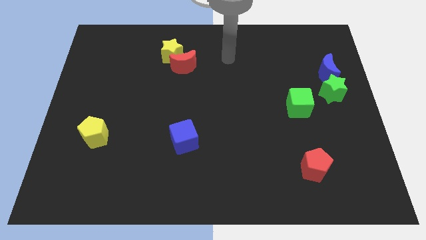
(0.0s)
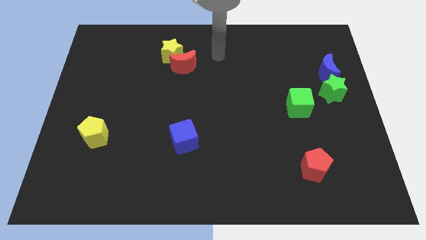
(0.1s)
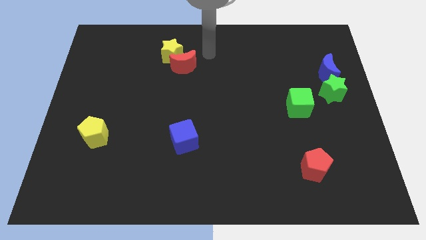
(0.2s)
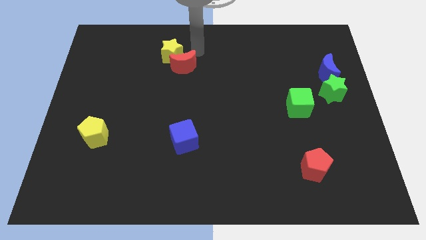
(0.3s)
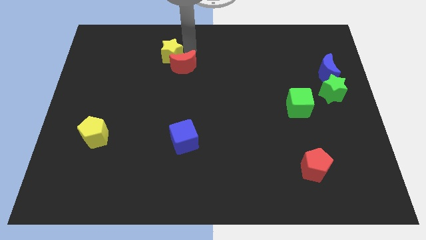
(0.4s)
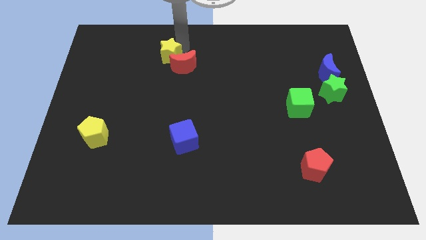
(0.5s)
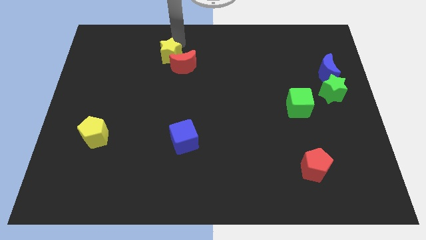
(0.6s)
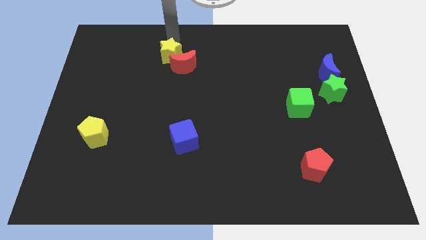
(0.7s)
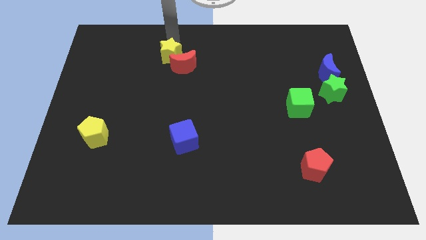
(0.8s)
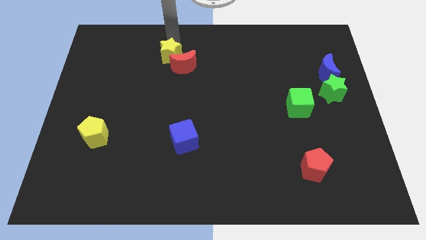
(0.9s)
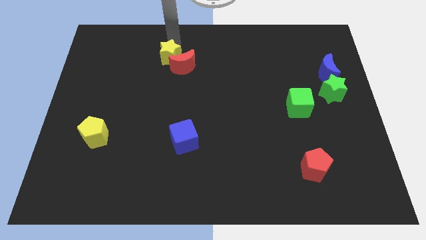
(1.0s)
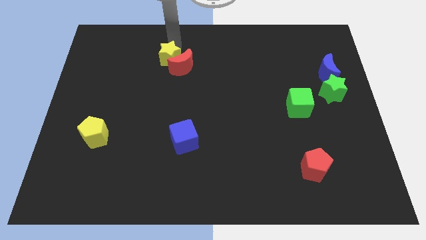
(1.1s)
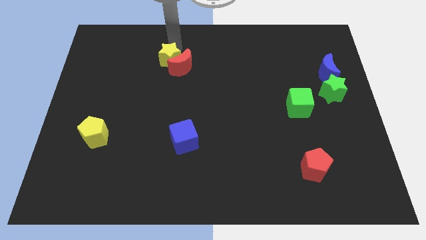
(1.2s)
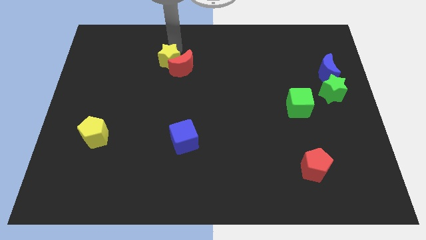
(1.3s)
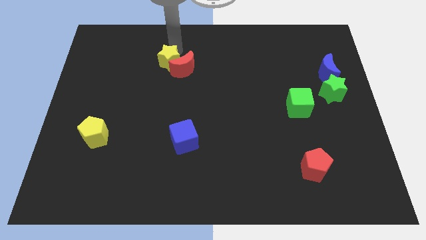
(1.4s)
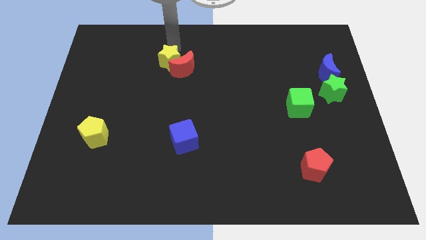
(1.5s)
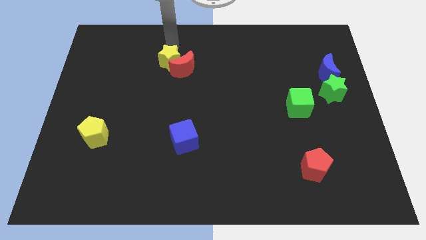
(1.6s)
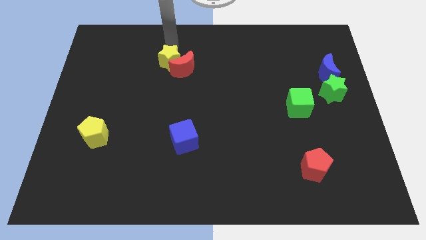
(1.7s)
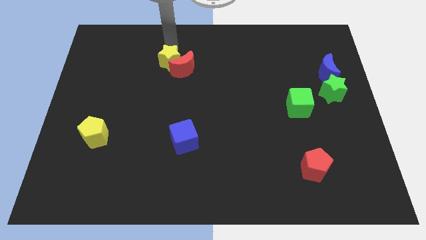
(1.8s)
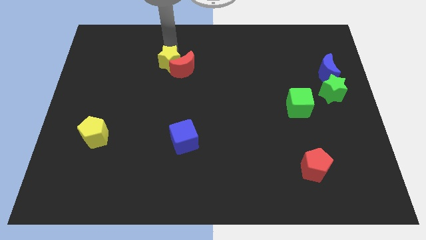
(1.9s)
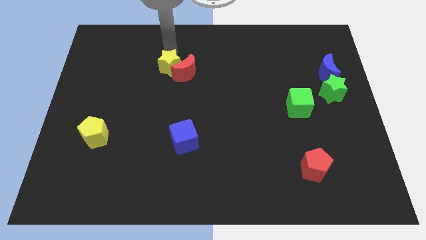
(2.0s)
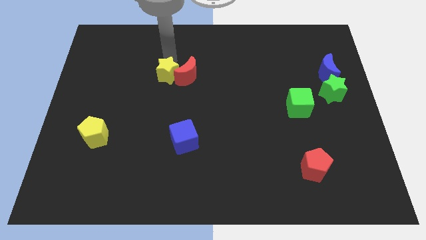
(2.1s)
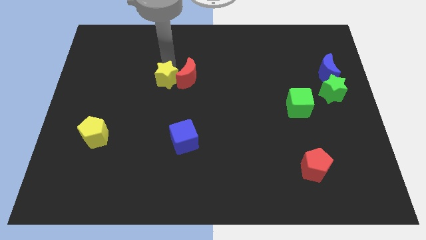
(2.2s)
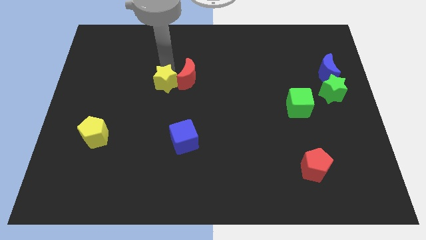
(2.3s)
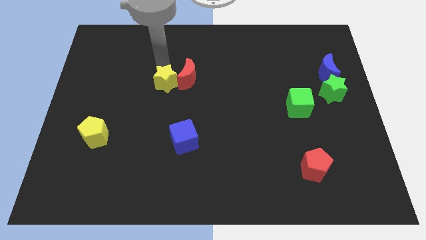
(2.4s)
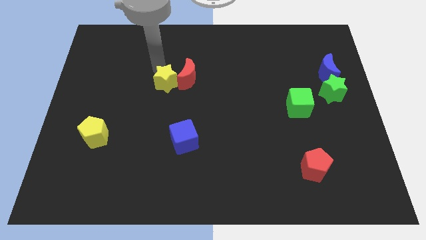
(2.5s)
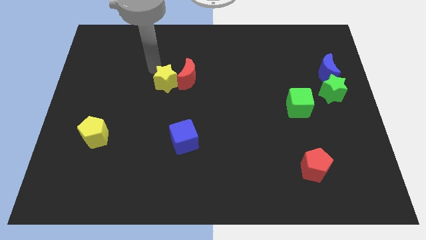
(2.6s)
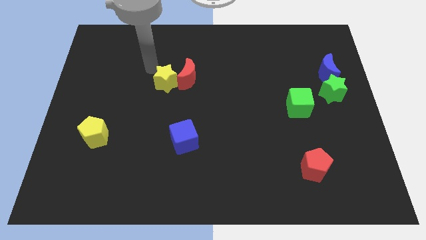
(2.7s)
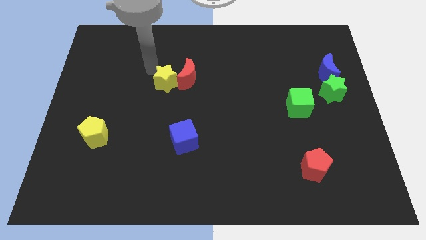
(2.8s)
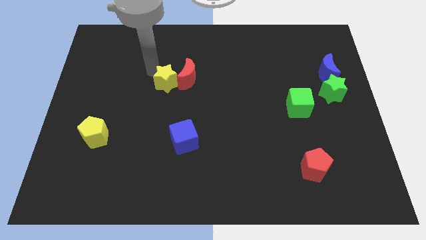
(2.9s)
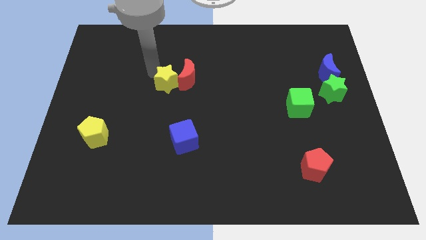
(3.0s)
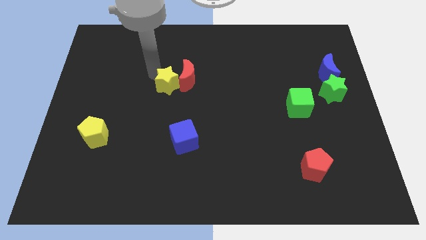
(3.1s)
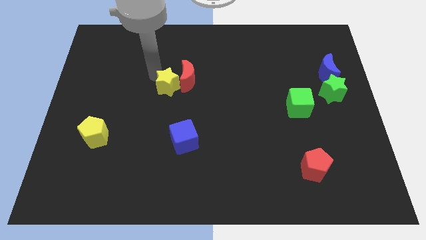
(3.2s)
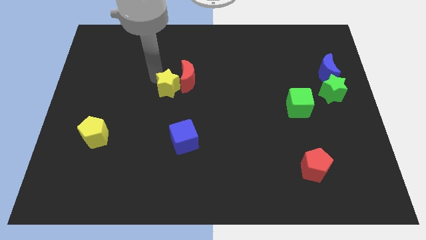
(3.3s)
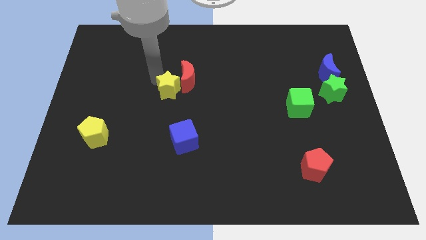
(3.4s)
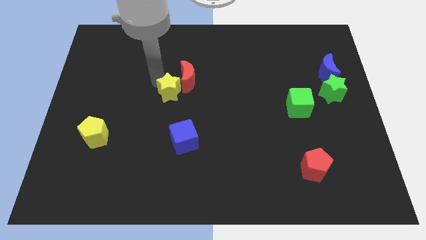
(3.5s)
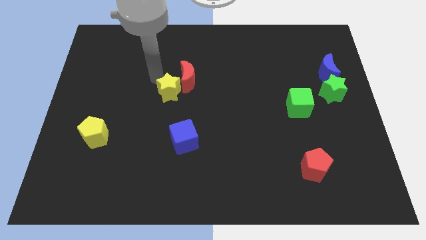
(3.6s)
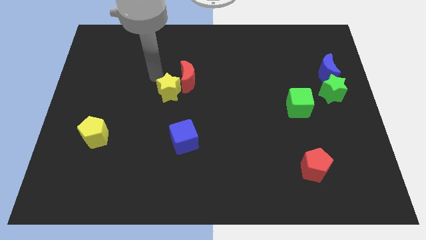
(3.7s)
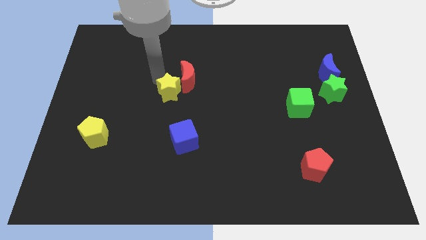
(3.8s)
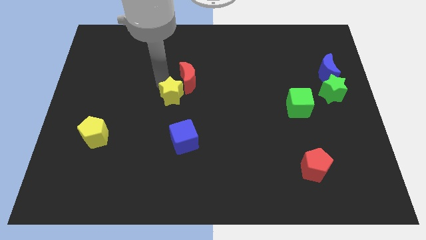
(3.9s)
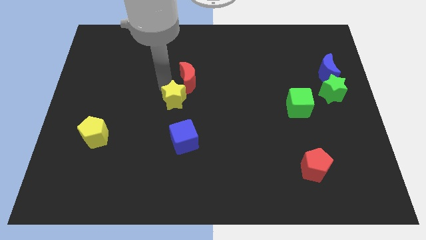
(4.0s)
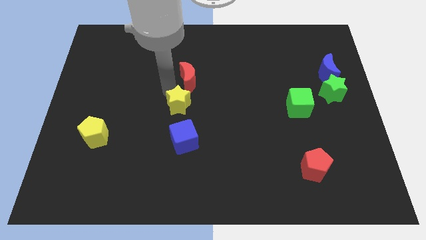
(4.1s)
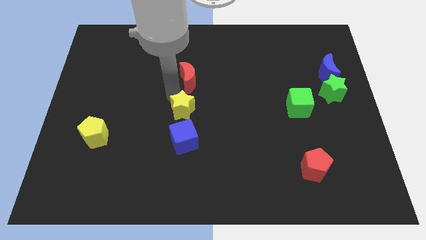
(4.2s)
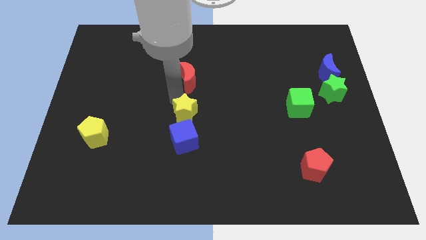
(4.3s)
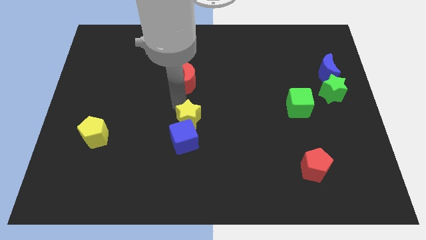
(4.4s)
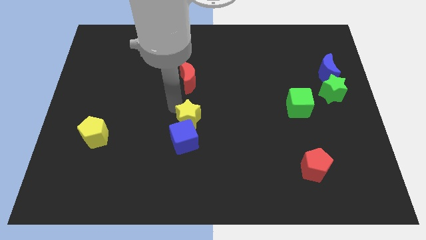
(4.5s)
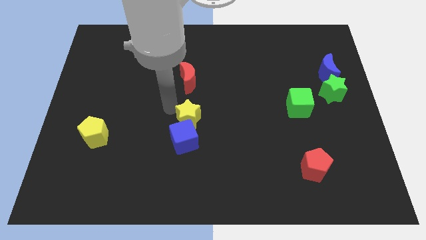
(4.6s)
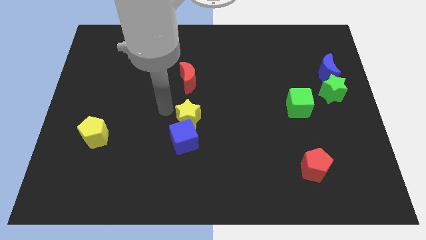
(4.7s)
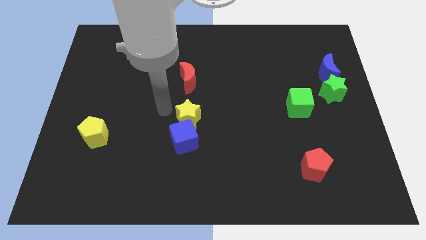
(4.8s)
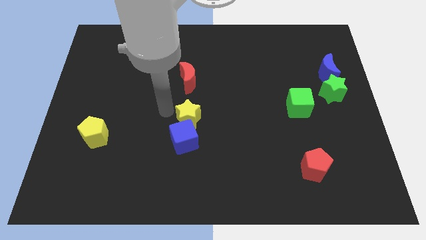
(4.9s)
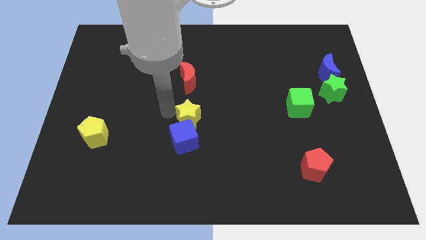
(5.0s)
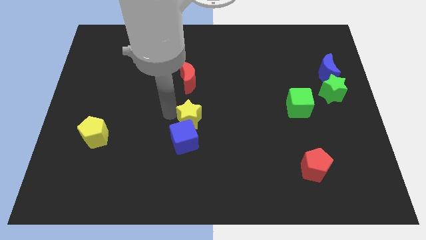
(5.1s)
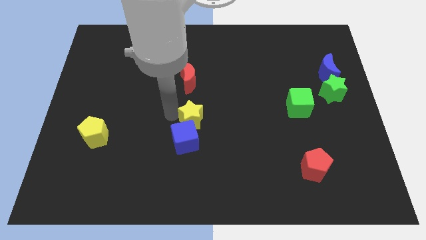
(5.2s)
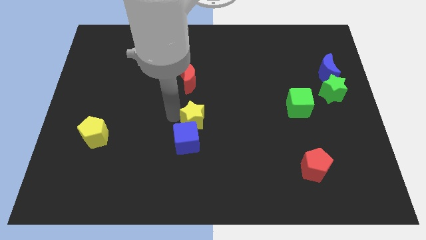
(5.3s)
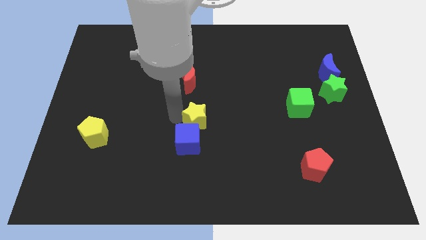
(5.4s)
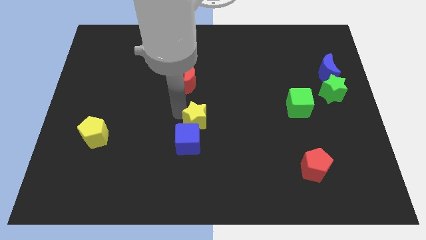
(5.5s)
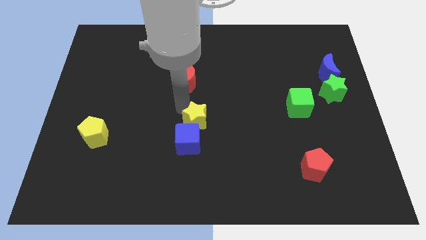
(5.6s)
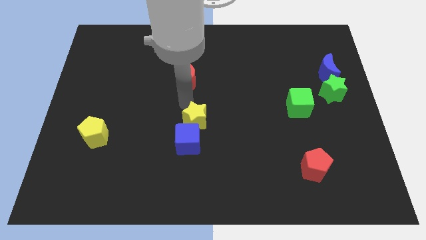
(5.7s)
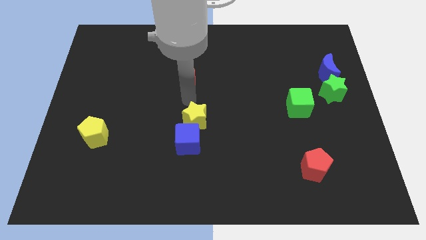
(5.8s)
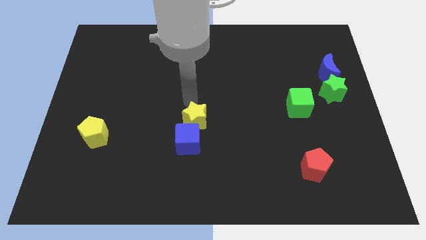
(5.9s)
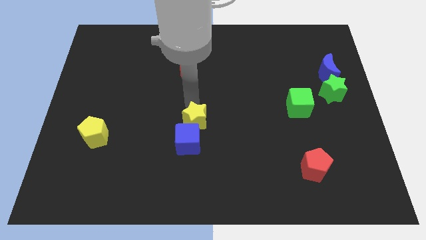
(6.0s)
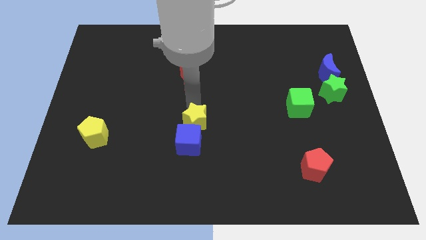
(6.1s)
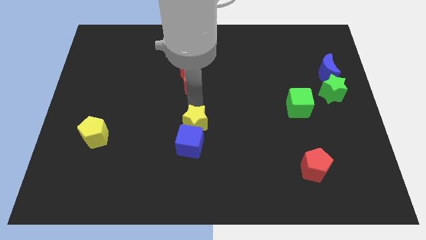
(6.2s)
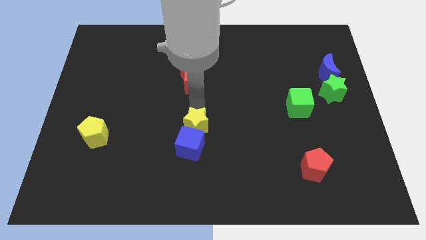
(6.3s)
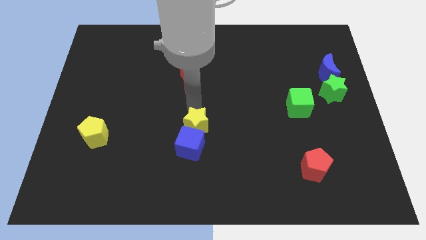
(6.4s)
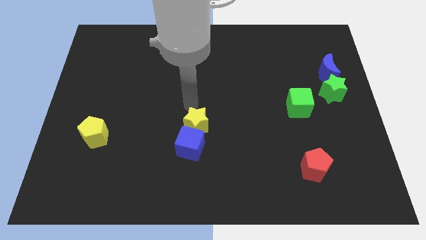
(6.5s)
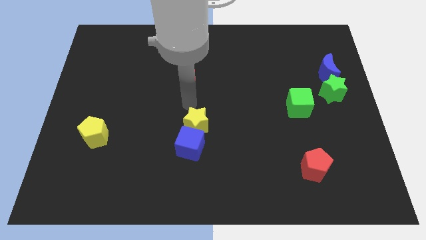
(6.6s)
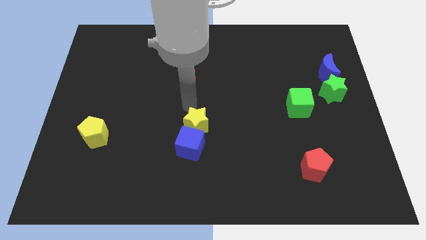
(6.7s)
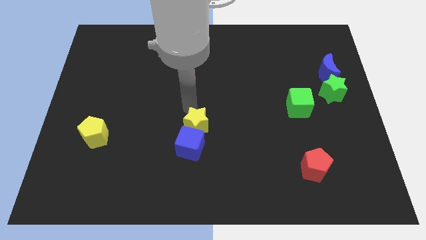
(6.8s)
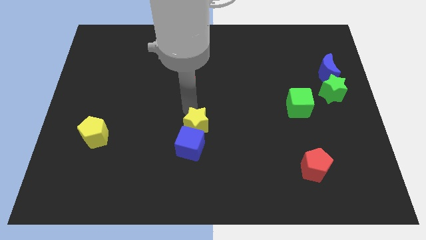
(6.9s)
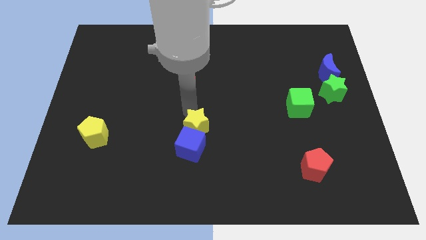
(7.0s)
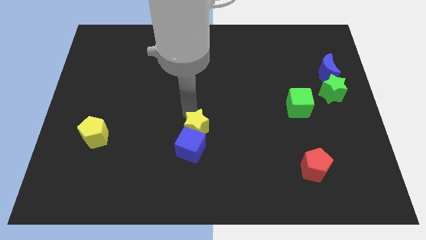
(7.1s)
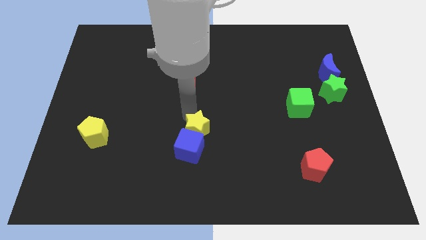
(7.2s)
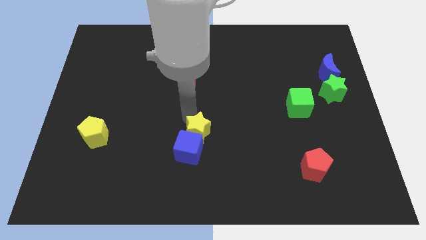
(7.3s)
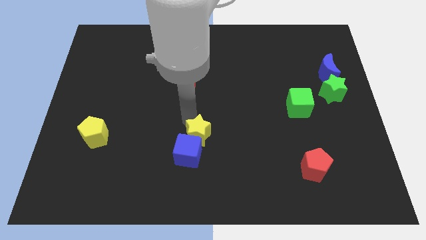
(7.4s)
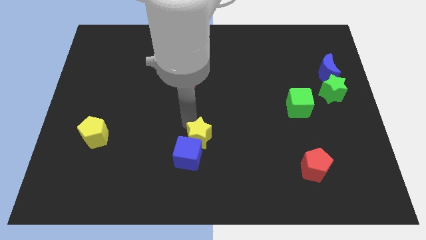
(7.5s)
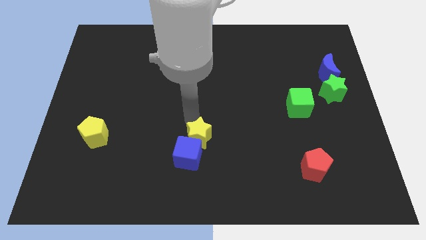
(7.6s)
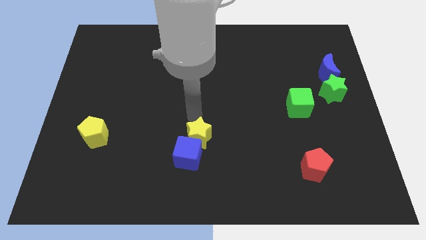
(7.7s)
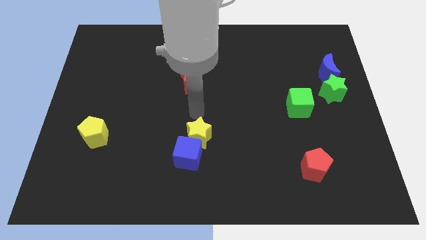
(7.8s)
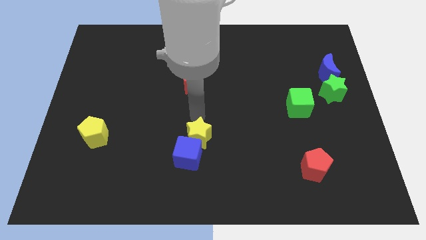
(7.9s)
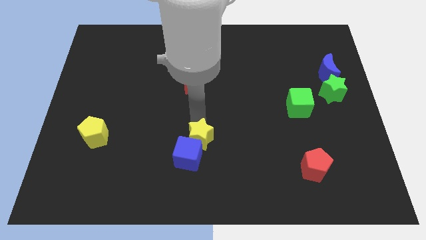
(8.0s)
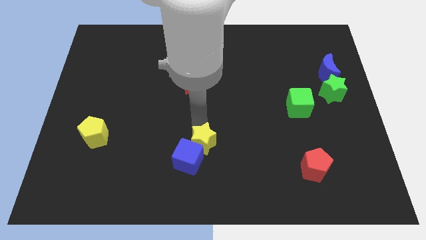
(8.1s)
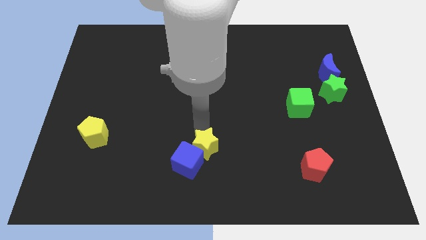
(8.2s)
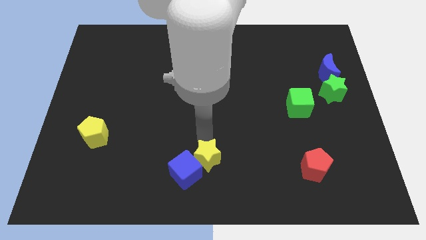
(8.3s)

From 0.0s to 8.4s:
move the yellow star to the bottom side
